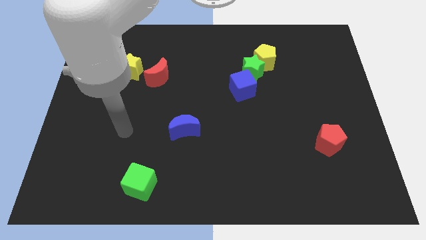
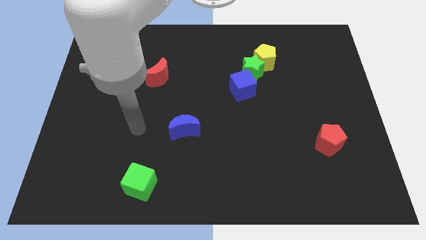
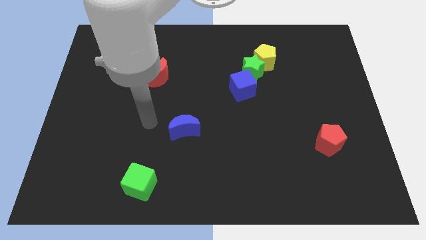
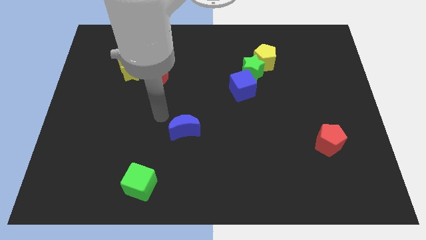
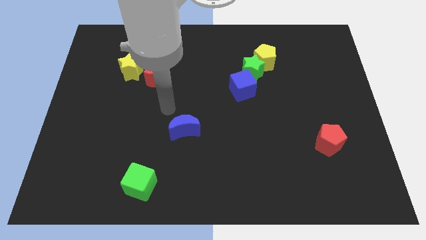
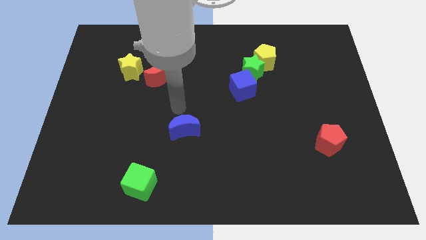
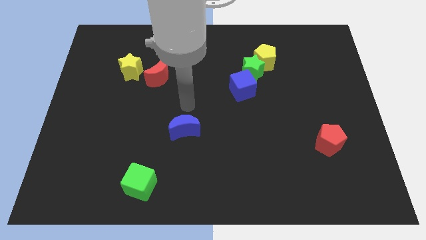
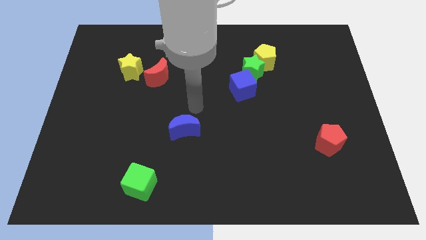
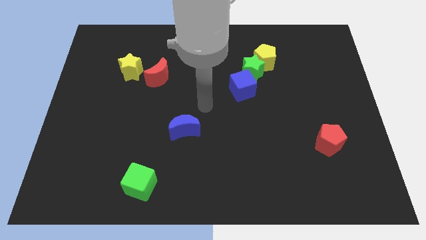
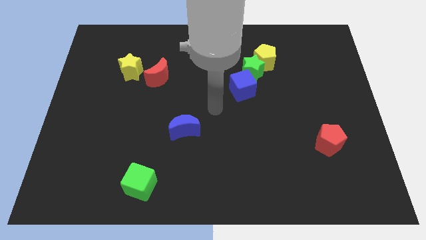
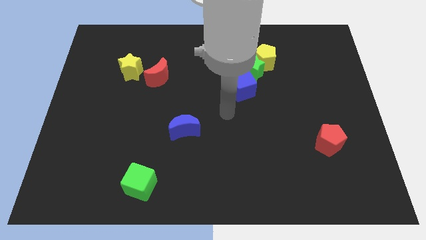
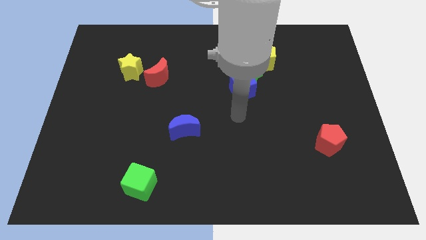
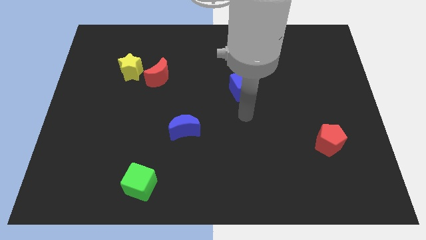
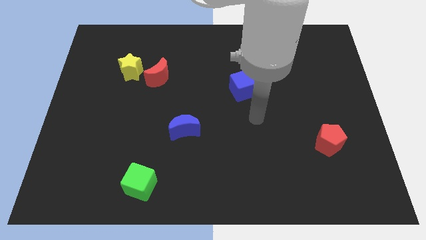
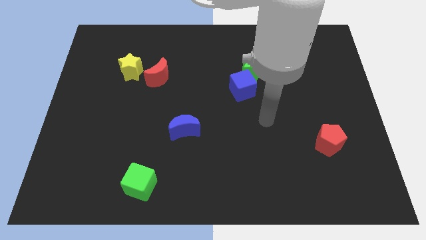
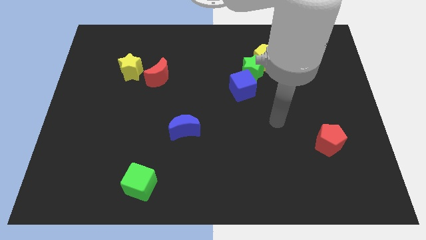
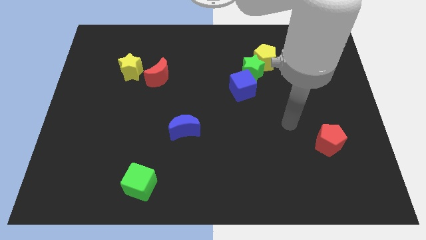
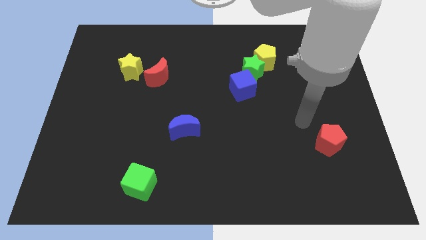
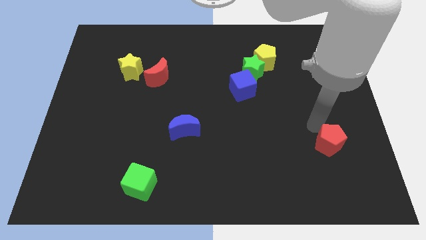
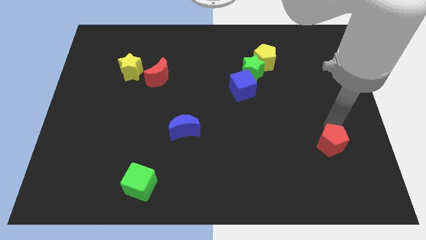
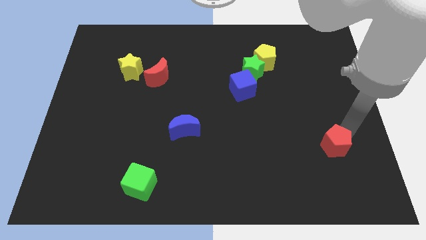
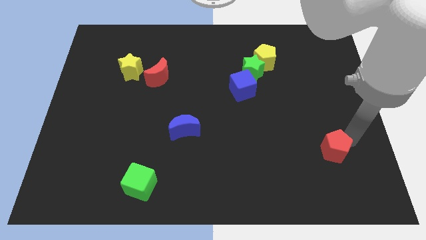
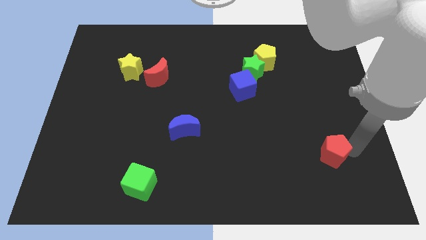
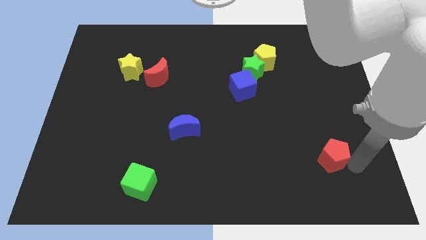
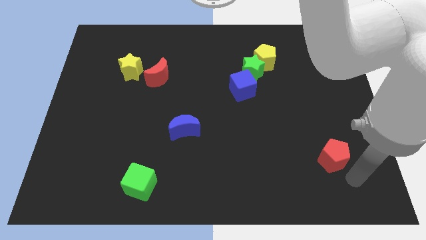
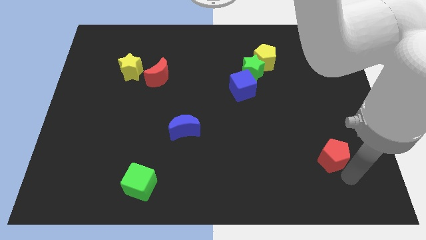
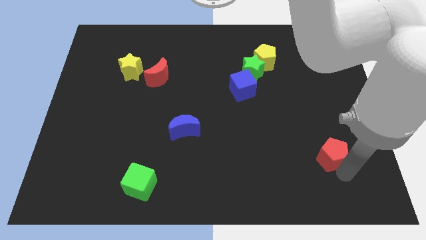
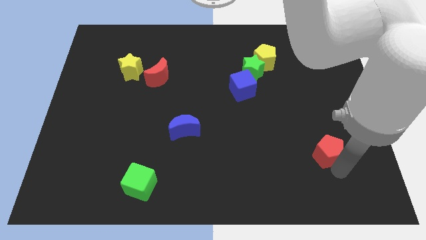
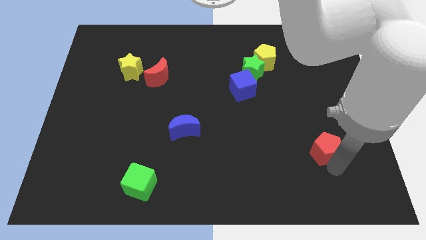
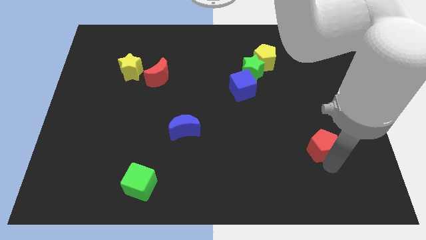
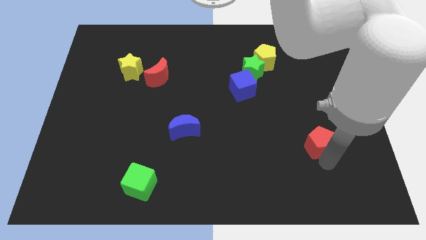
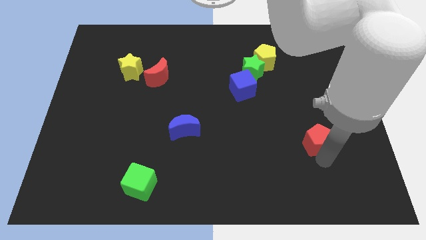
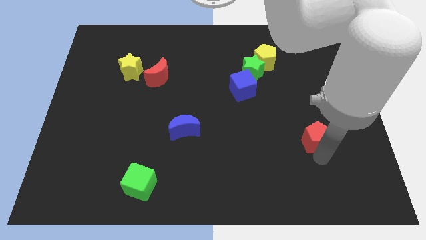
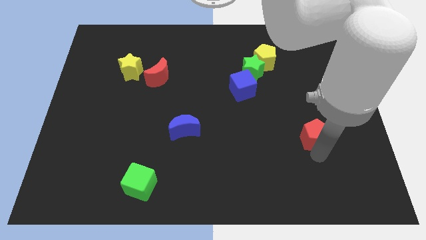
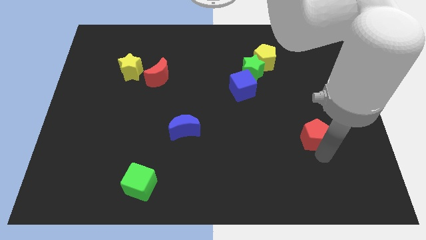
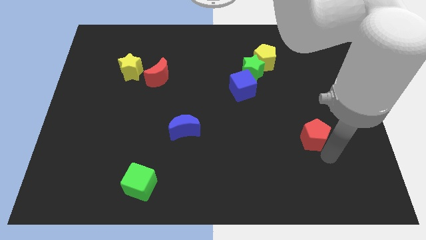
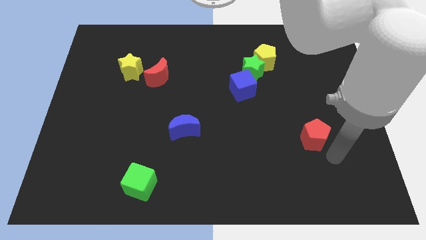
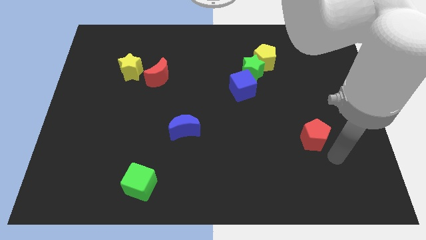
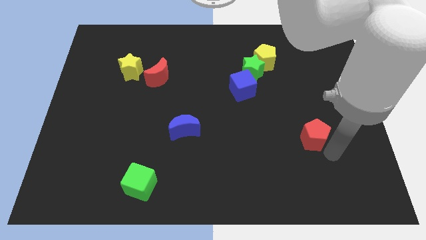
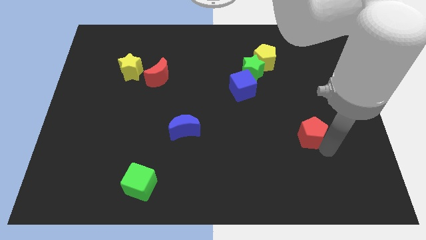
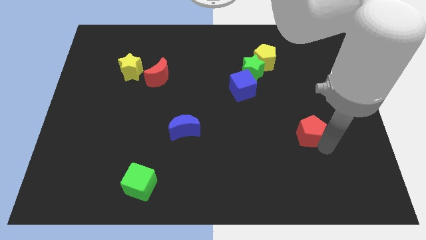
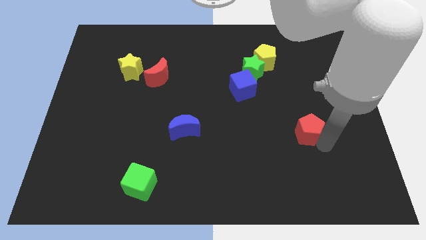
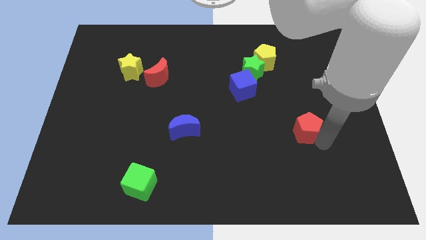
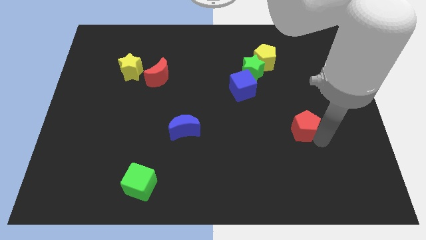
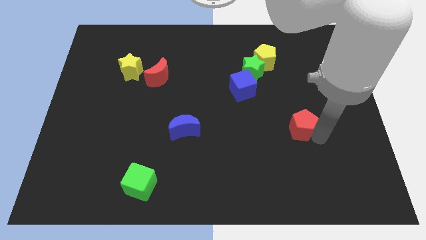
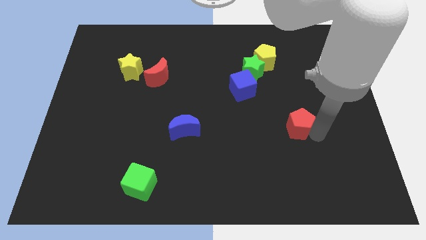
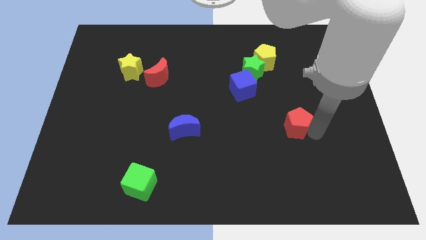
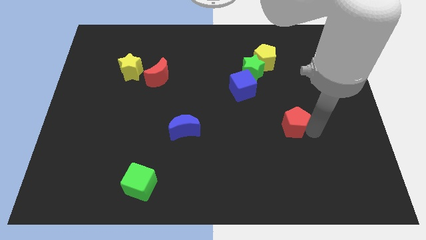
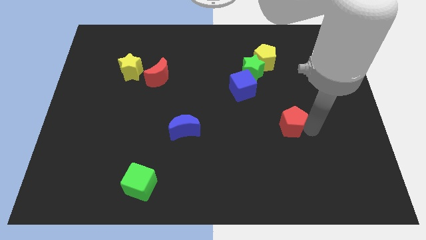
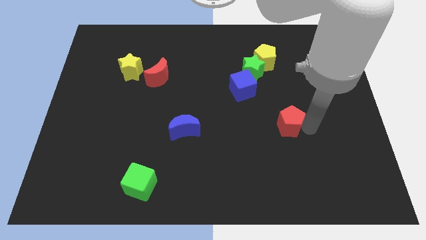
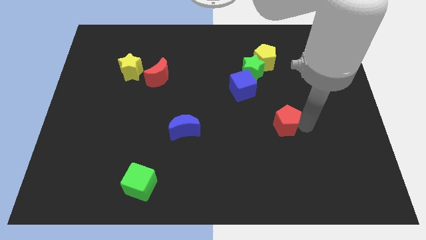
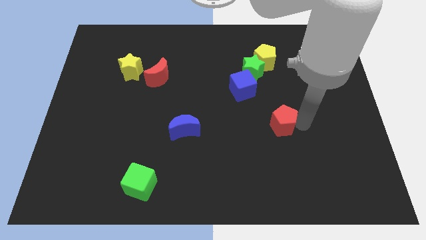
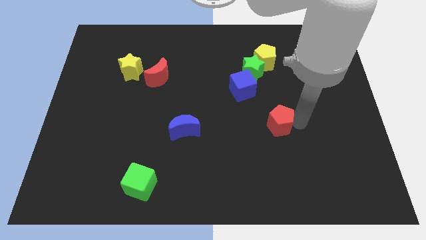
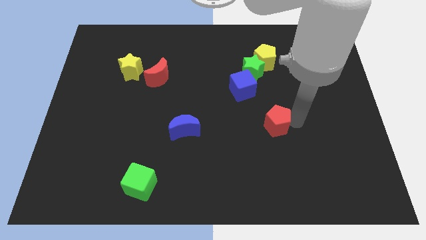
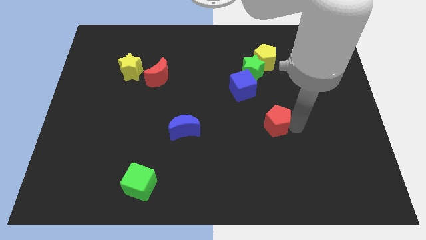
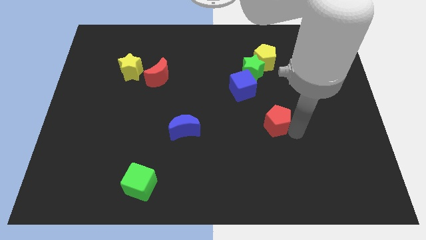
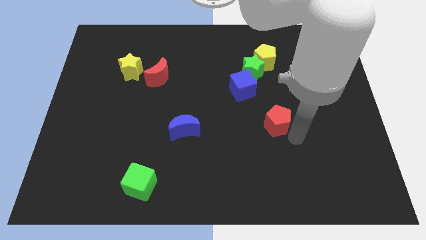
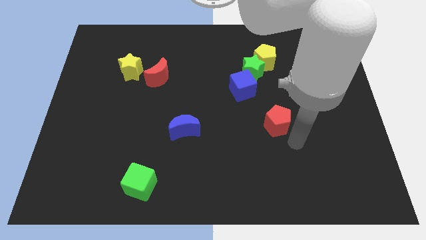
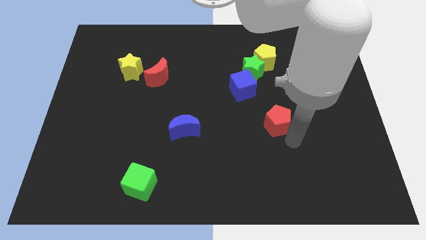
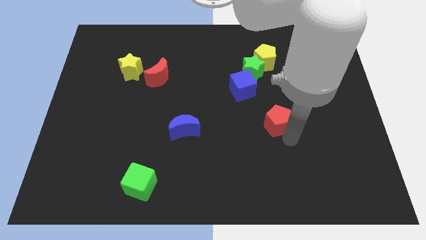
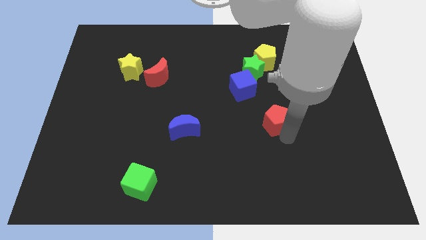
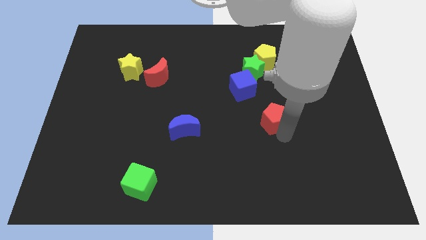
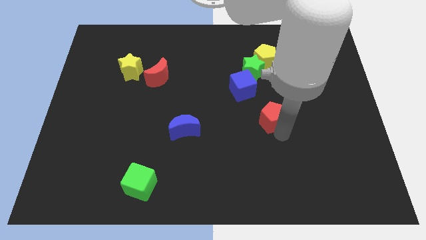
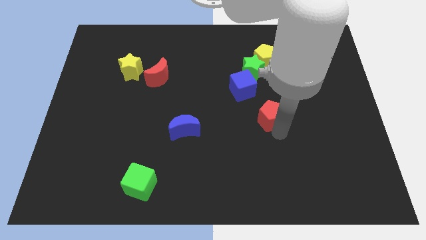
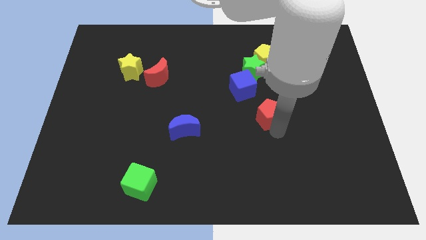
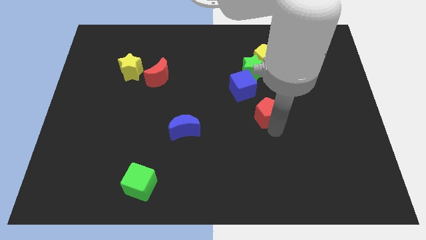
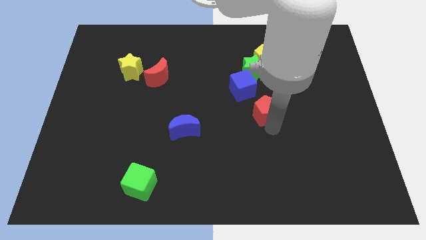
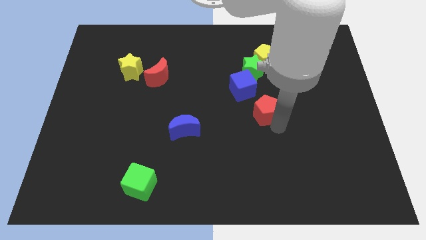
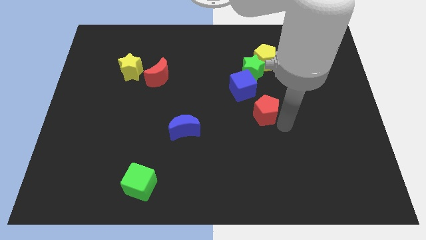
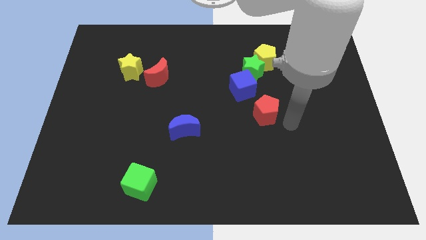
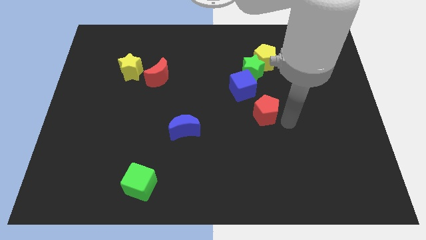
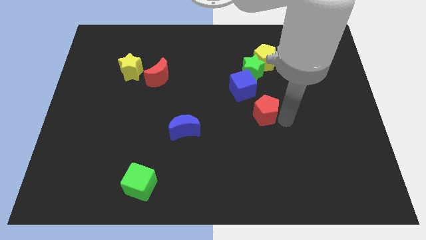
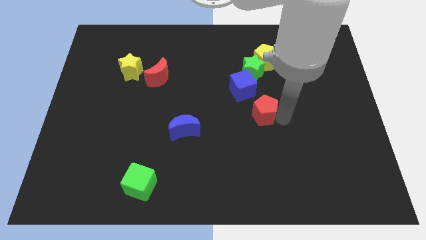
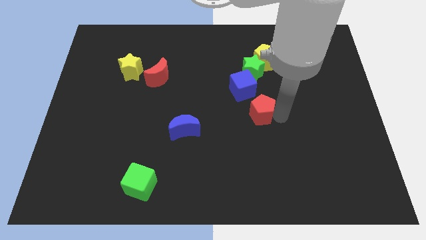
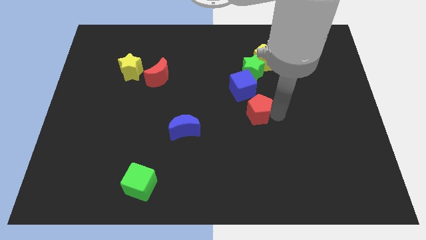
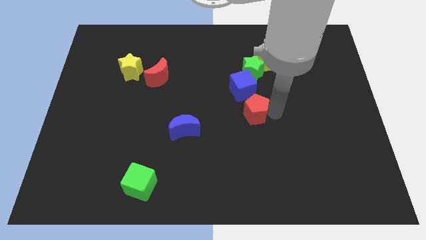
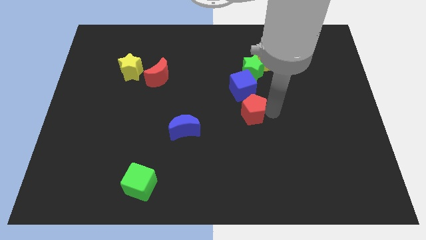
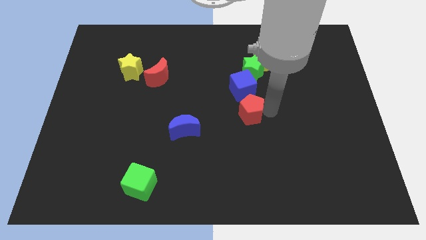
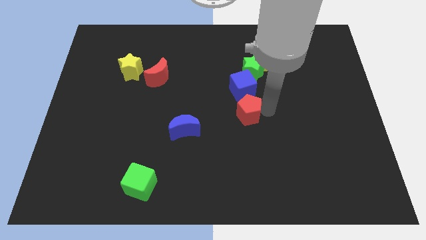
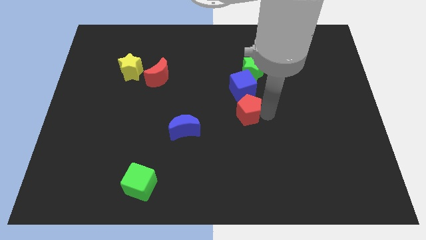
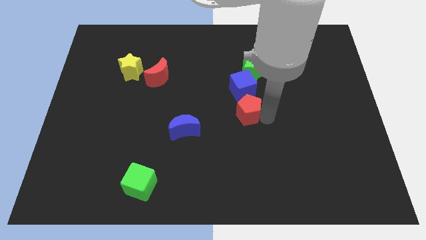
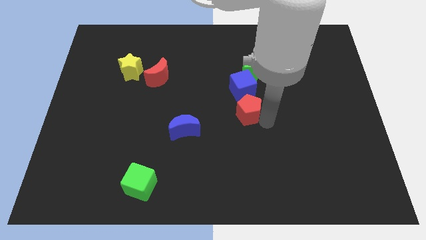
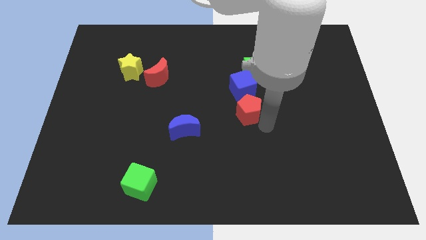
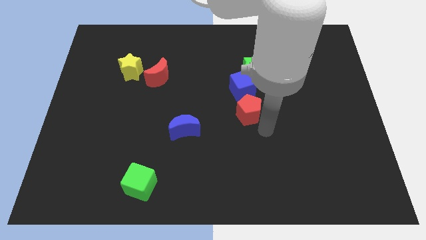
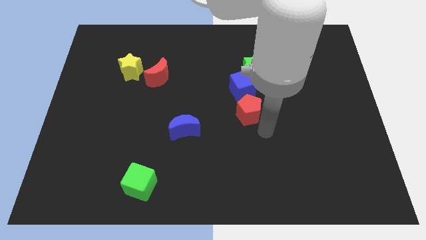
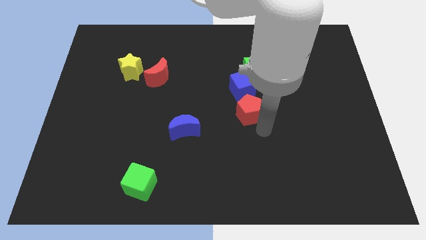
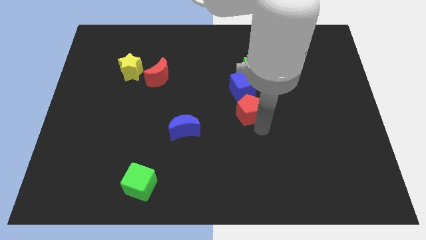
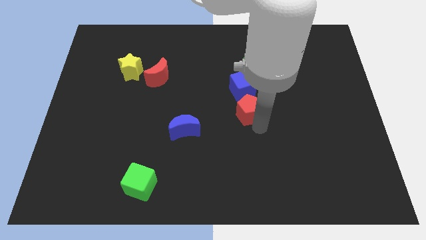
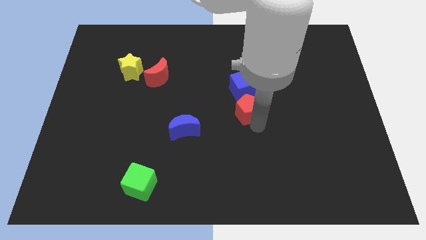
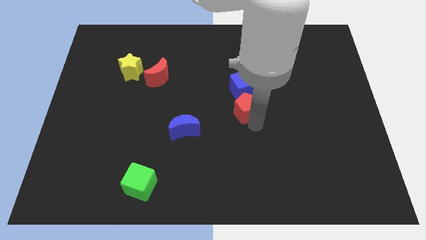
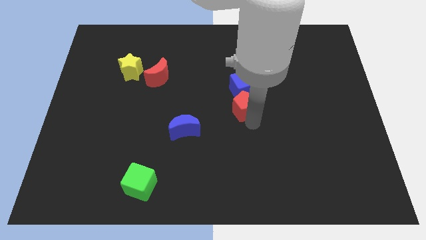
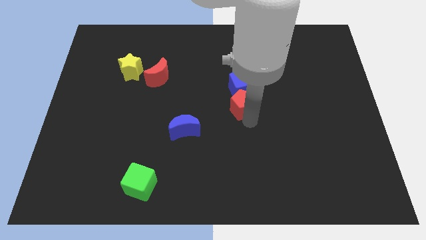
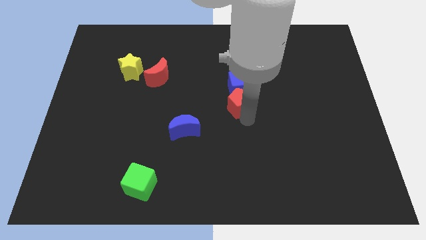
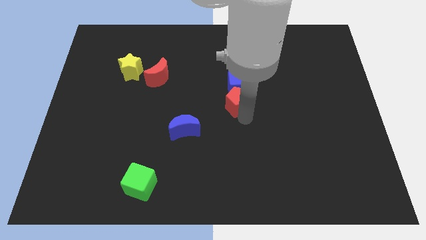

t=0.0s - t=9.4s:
push the red pentagon up and left diagonally
